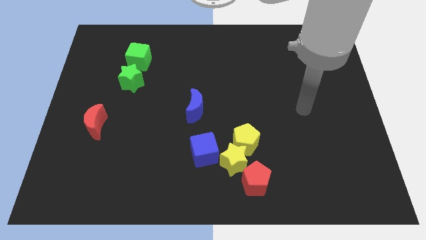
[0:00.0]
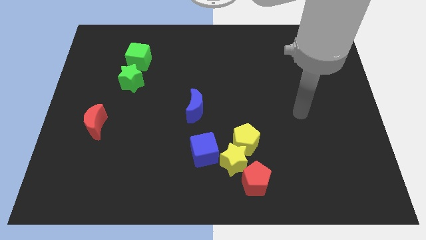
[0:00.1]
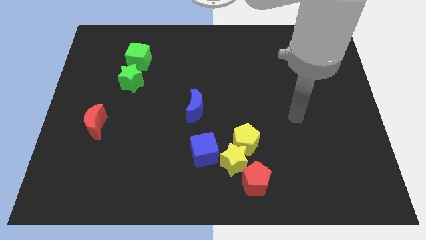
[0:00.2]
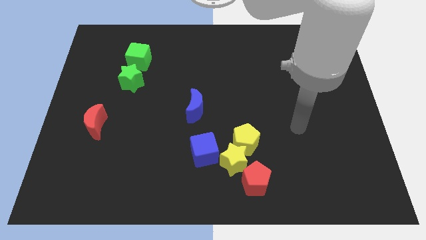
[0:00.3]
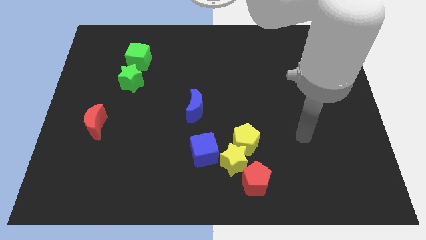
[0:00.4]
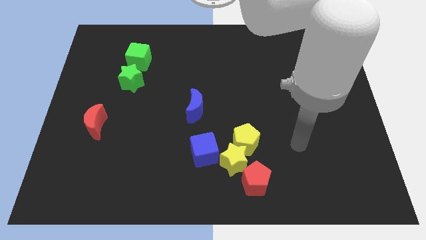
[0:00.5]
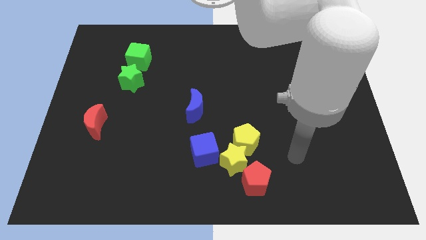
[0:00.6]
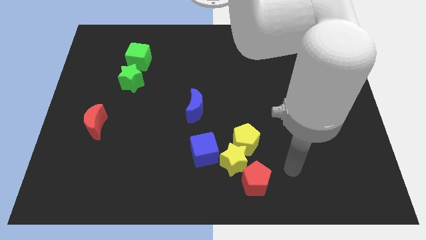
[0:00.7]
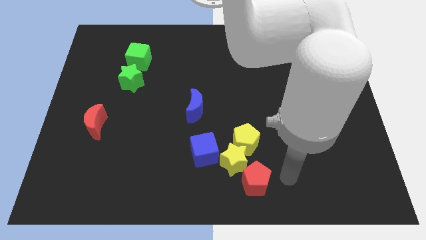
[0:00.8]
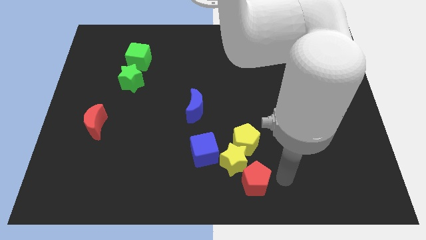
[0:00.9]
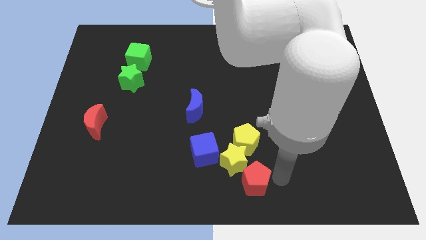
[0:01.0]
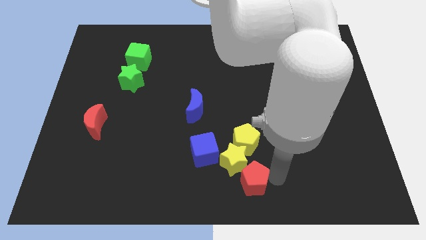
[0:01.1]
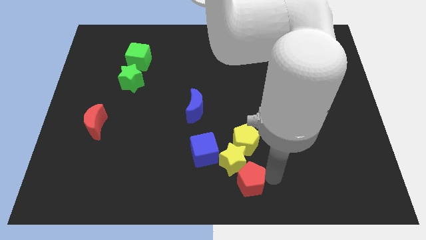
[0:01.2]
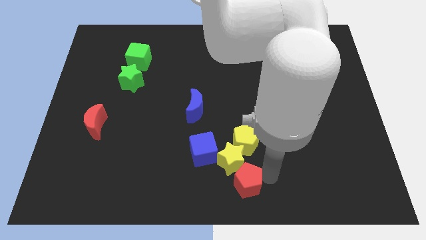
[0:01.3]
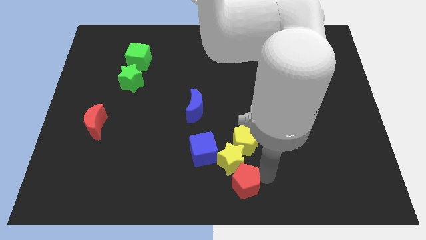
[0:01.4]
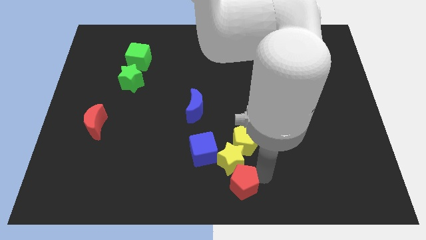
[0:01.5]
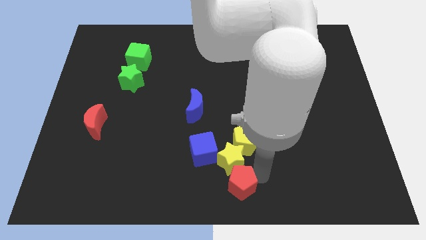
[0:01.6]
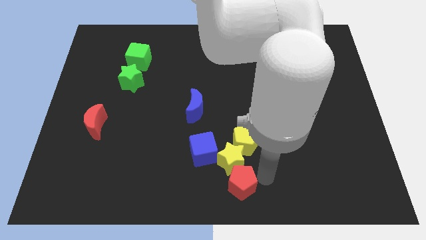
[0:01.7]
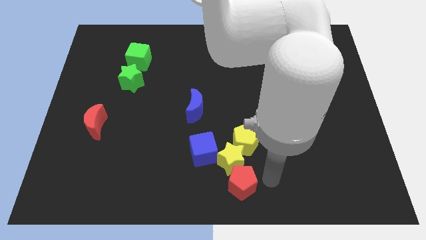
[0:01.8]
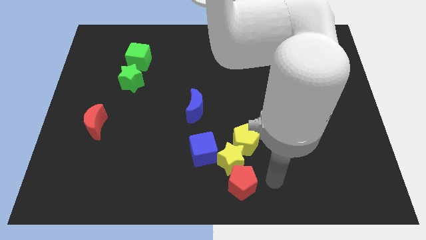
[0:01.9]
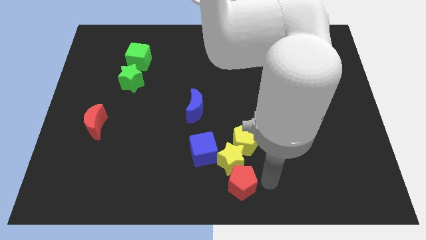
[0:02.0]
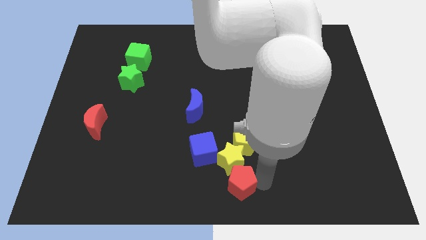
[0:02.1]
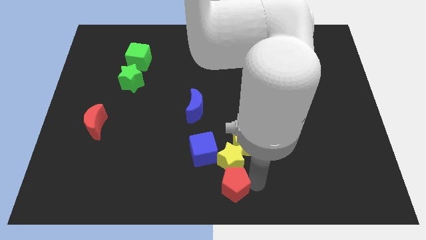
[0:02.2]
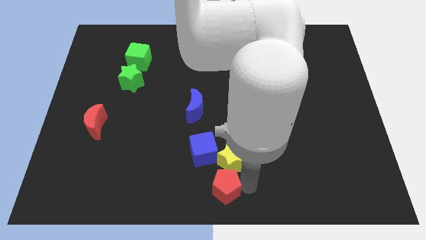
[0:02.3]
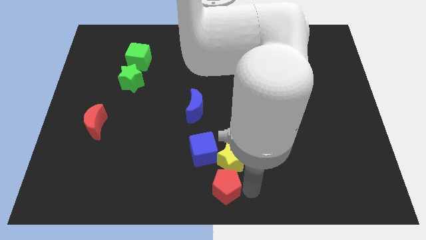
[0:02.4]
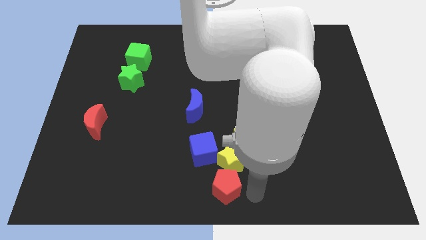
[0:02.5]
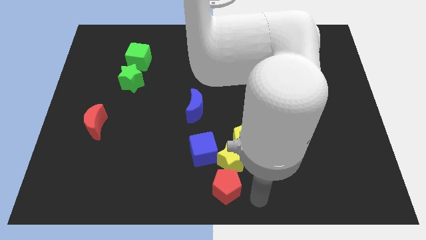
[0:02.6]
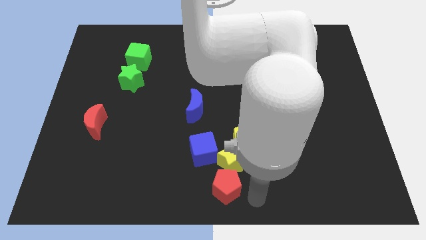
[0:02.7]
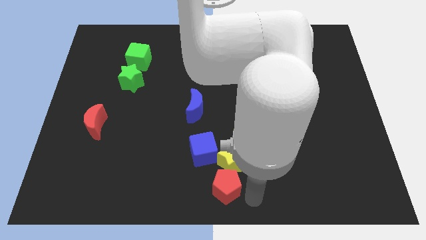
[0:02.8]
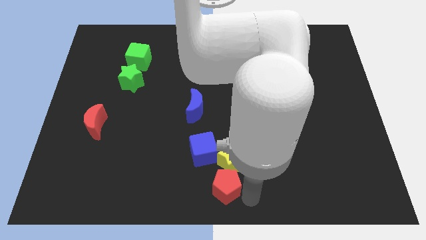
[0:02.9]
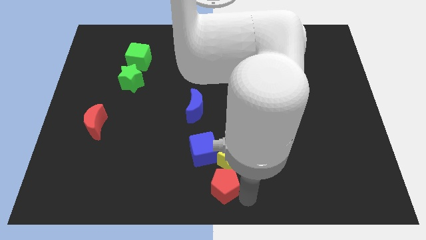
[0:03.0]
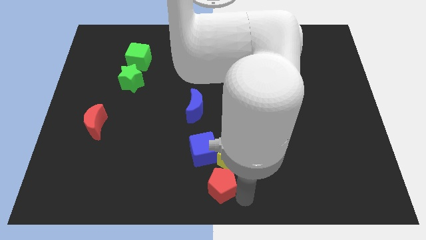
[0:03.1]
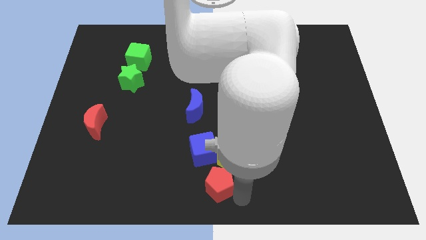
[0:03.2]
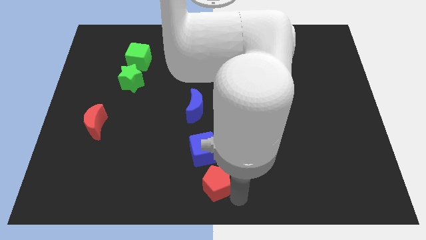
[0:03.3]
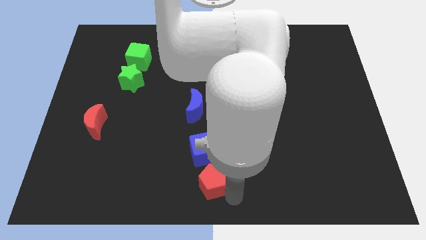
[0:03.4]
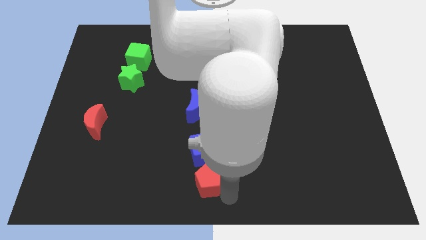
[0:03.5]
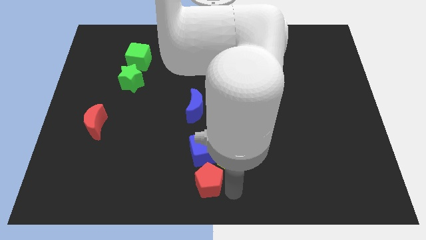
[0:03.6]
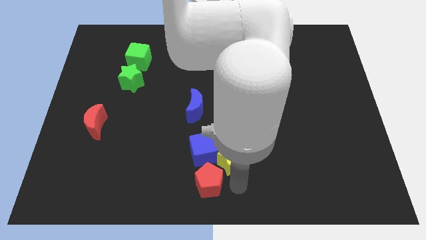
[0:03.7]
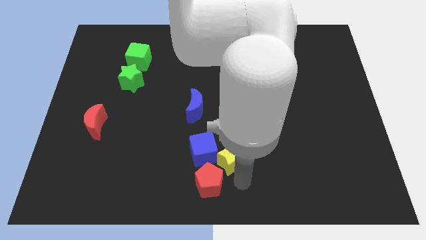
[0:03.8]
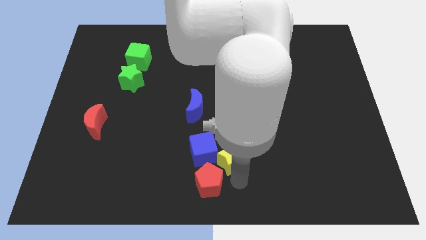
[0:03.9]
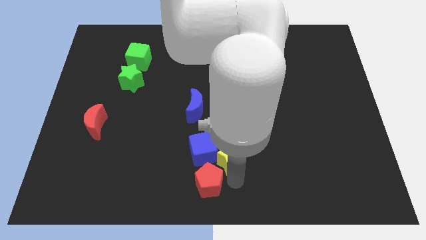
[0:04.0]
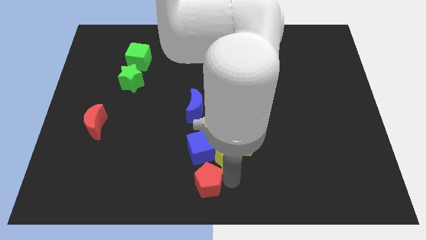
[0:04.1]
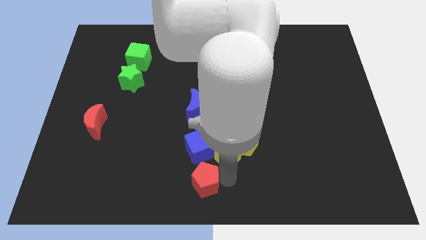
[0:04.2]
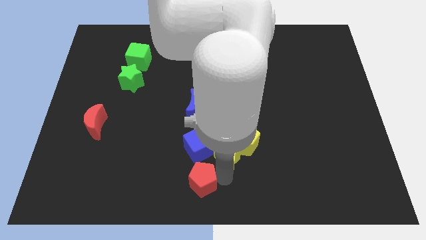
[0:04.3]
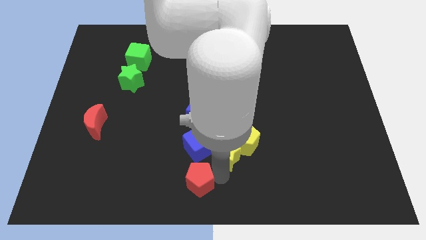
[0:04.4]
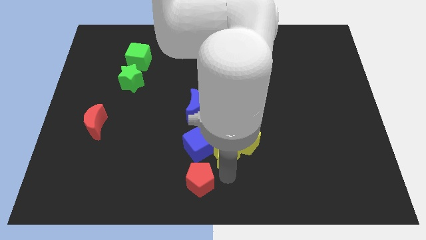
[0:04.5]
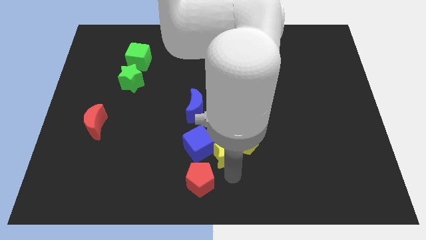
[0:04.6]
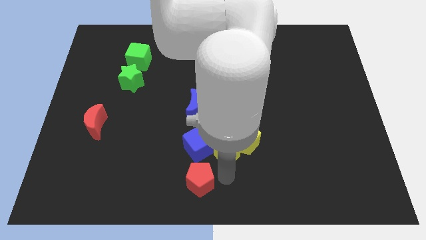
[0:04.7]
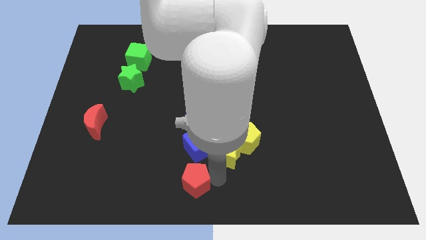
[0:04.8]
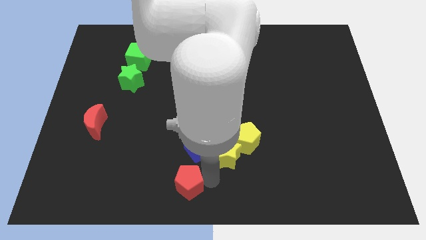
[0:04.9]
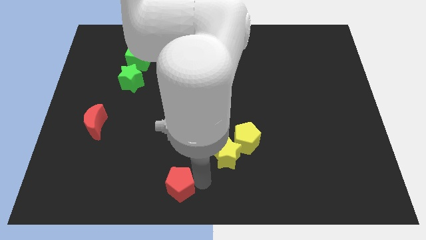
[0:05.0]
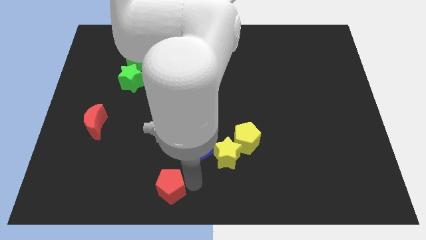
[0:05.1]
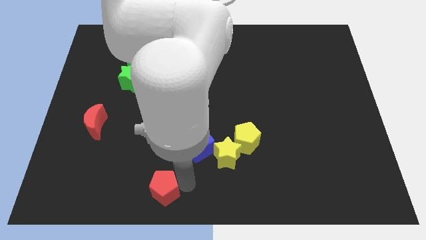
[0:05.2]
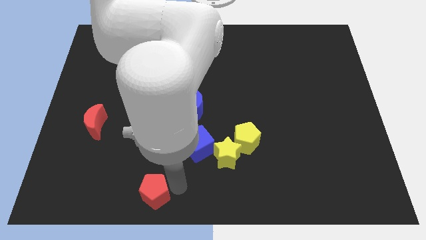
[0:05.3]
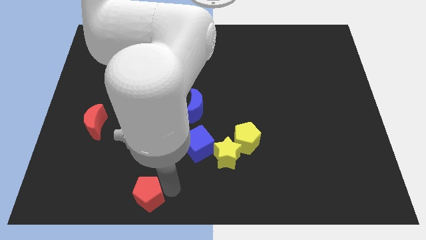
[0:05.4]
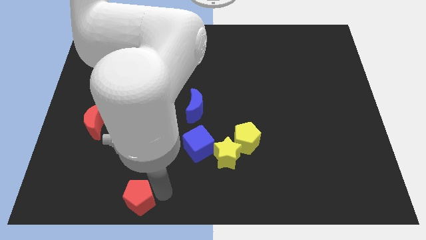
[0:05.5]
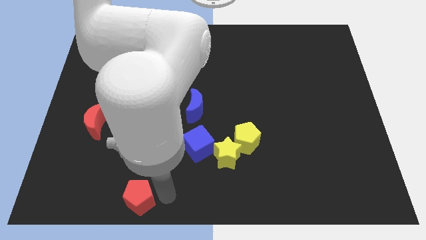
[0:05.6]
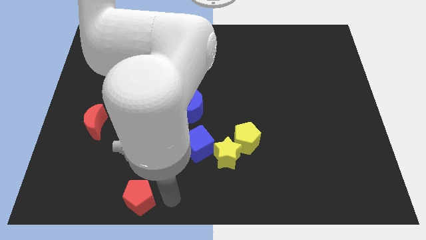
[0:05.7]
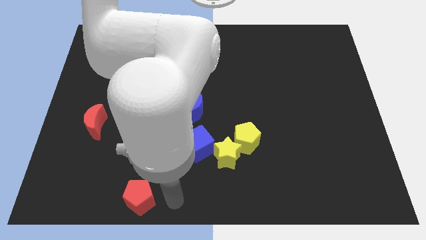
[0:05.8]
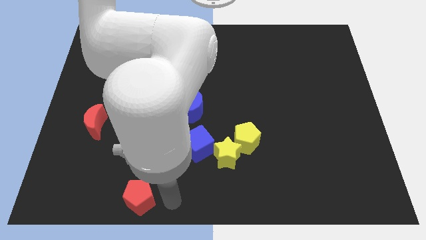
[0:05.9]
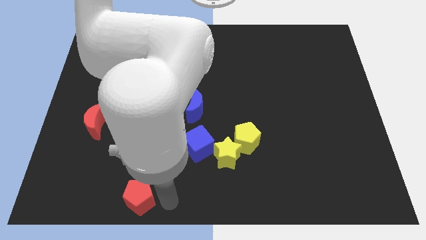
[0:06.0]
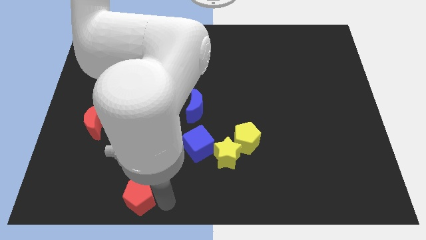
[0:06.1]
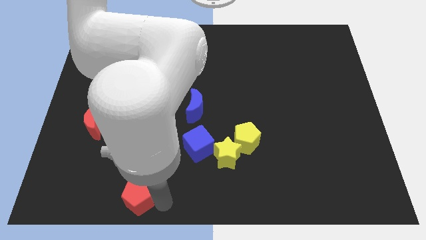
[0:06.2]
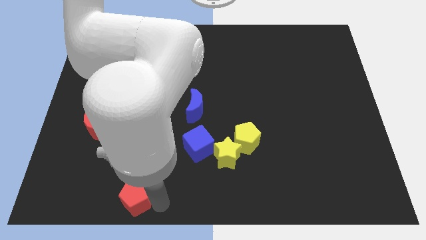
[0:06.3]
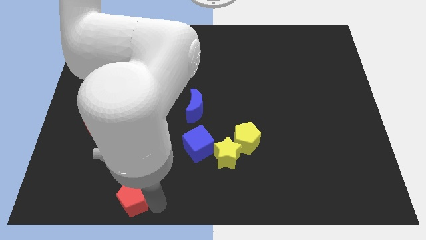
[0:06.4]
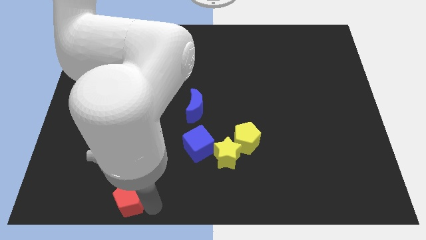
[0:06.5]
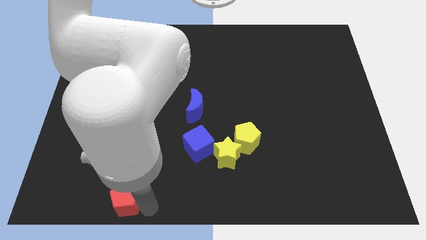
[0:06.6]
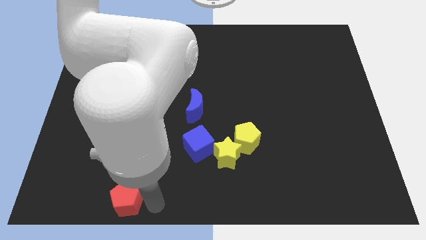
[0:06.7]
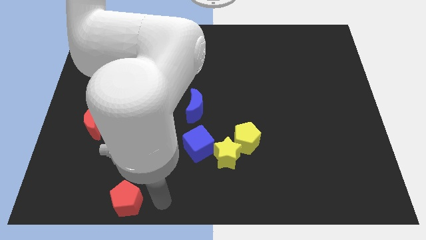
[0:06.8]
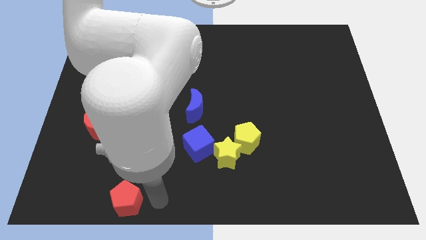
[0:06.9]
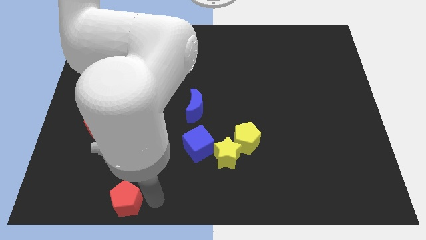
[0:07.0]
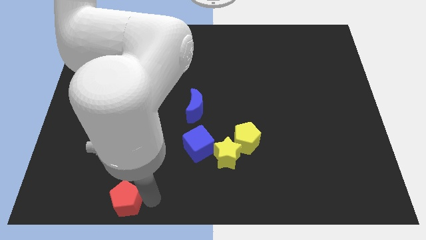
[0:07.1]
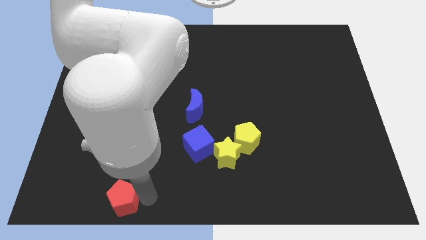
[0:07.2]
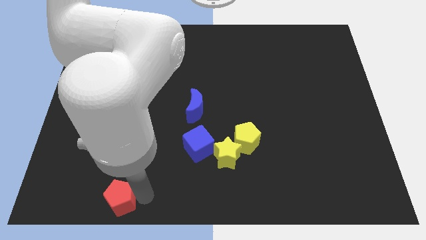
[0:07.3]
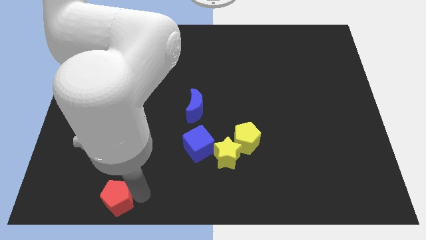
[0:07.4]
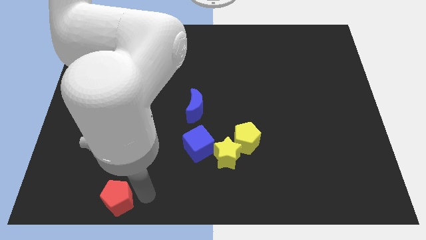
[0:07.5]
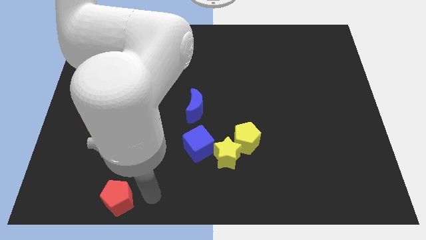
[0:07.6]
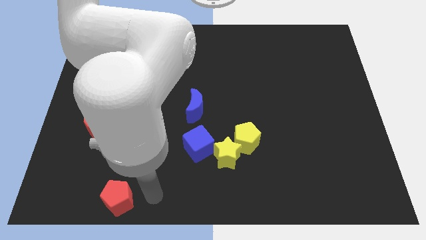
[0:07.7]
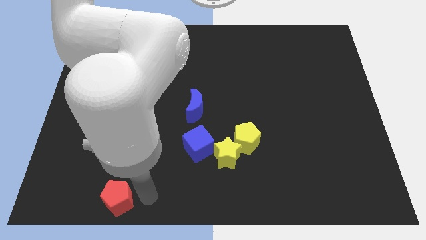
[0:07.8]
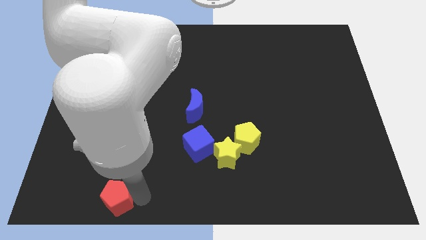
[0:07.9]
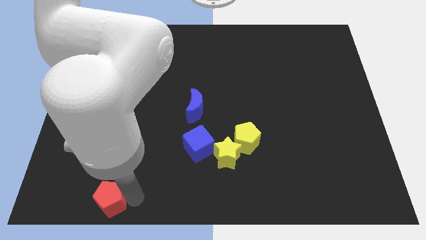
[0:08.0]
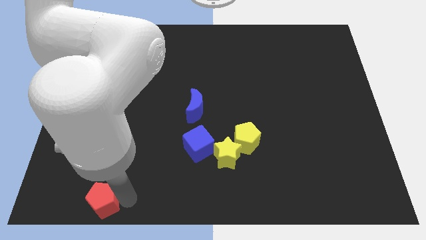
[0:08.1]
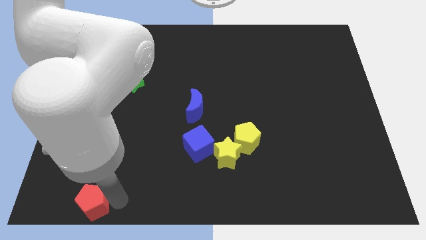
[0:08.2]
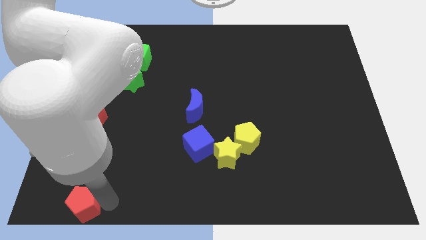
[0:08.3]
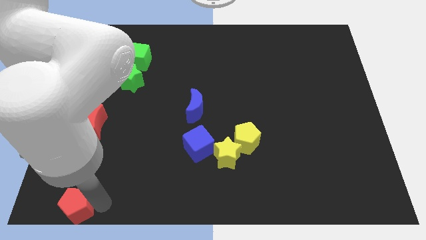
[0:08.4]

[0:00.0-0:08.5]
slide the red pentagon to the lower left corner
